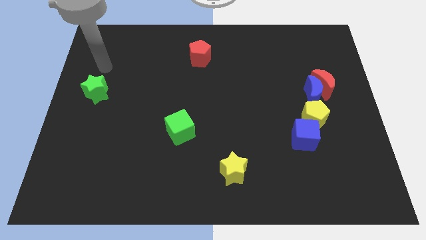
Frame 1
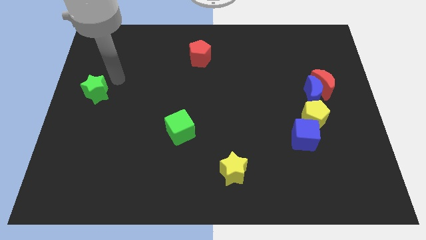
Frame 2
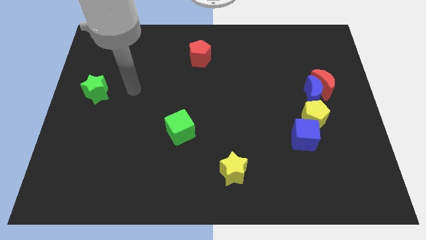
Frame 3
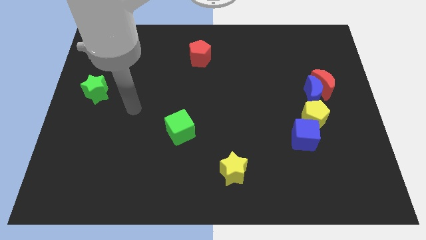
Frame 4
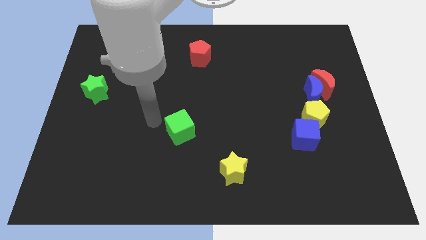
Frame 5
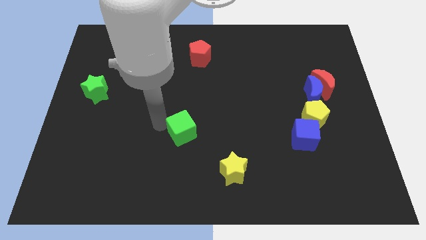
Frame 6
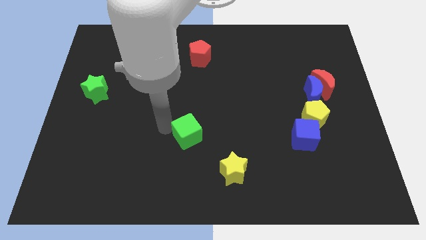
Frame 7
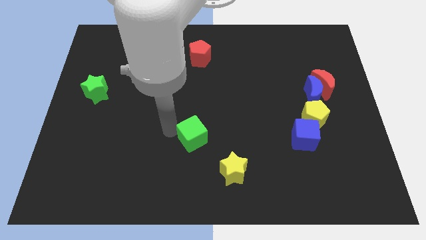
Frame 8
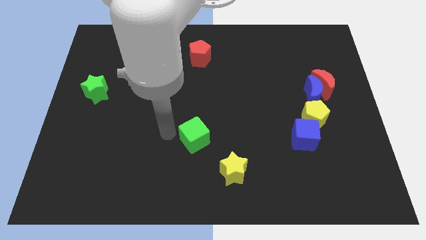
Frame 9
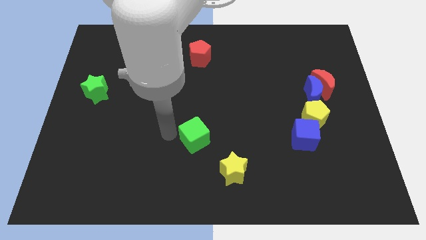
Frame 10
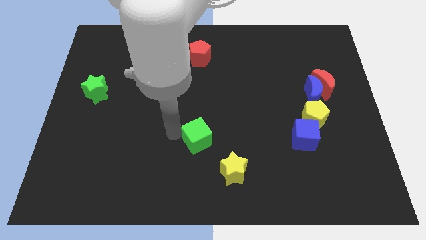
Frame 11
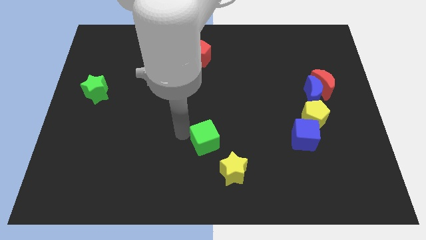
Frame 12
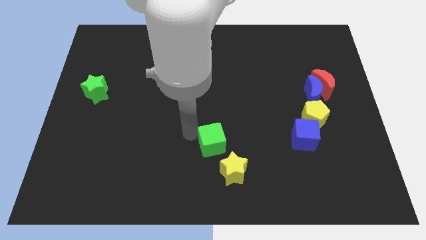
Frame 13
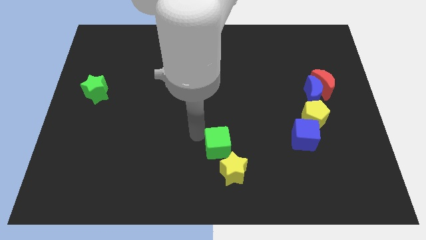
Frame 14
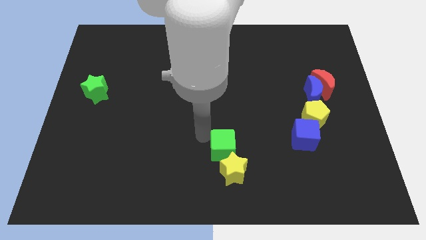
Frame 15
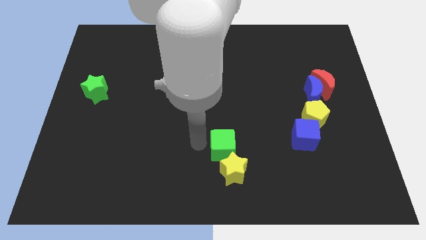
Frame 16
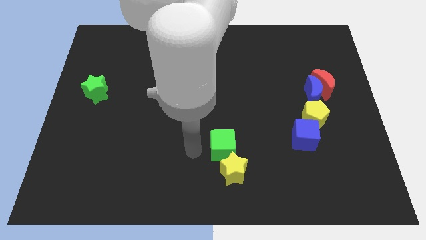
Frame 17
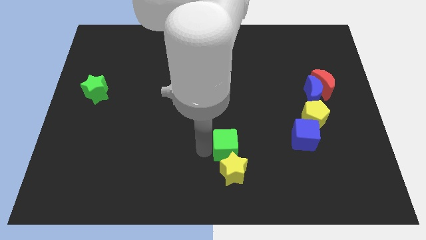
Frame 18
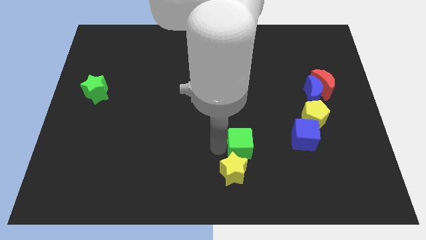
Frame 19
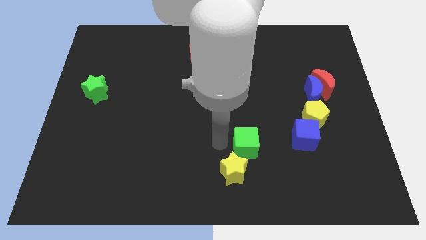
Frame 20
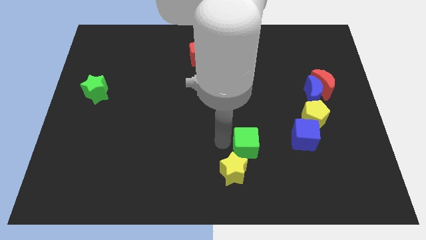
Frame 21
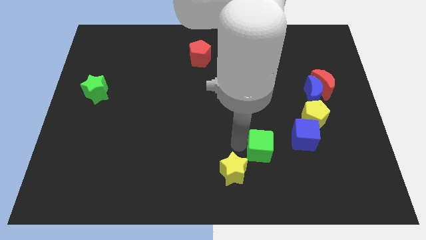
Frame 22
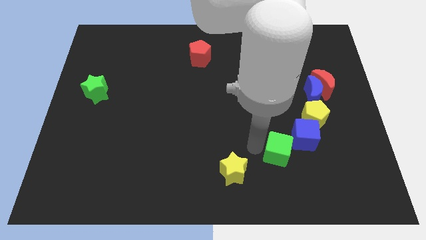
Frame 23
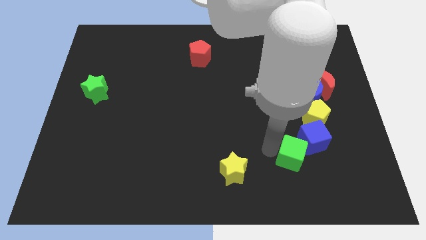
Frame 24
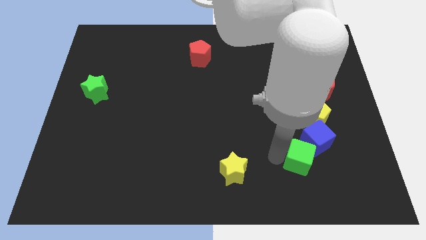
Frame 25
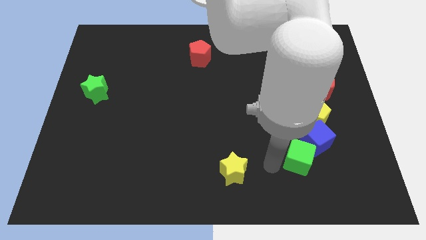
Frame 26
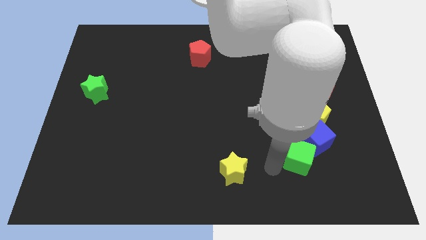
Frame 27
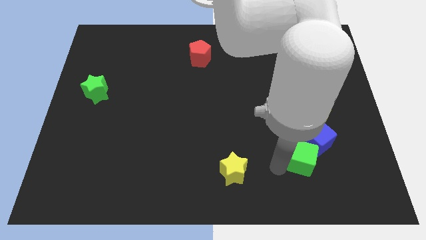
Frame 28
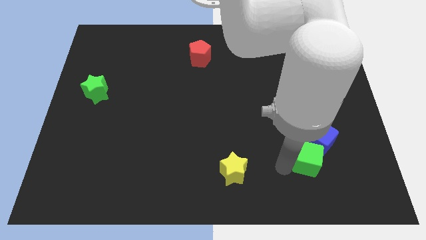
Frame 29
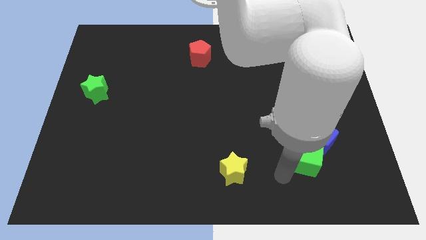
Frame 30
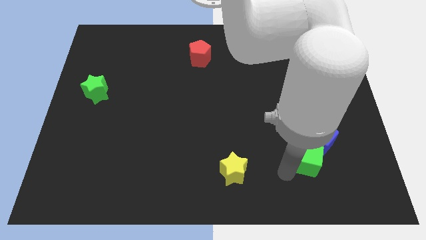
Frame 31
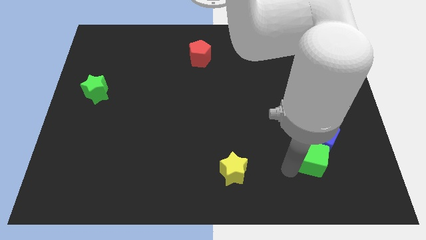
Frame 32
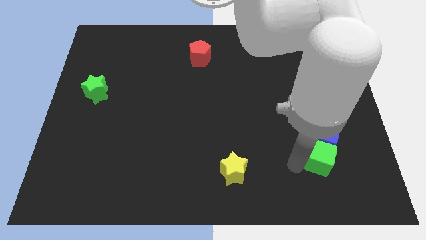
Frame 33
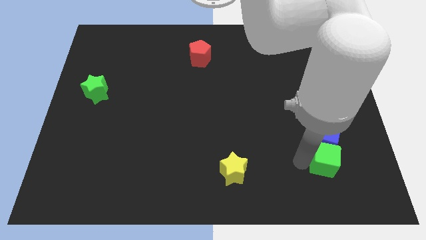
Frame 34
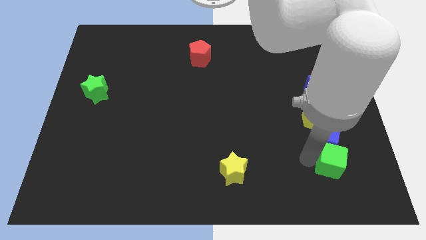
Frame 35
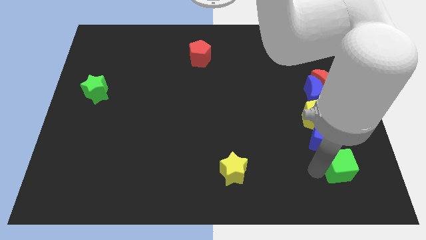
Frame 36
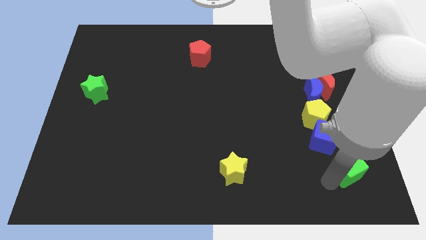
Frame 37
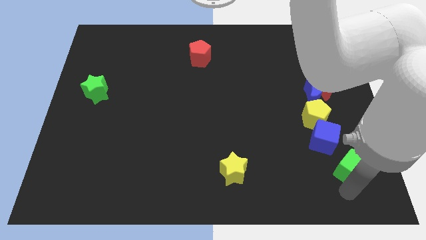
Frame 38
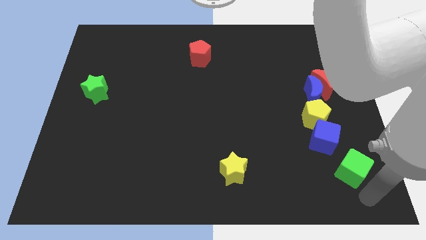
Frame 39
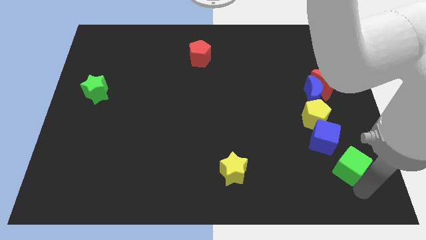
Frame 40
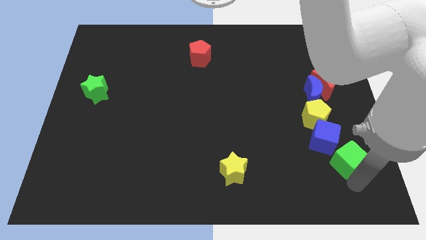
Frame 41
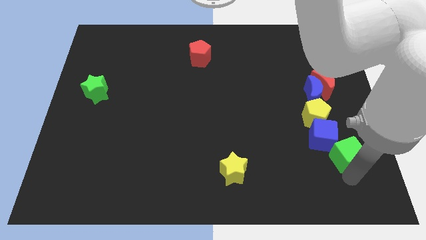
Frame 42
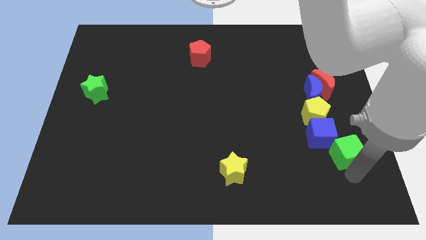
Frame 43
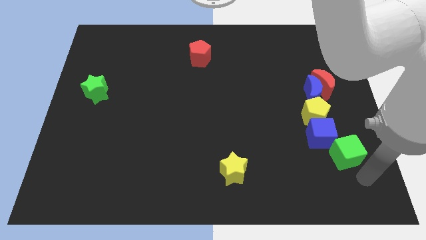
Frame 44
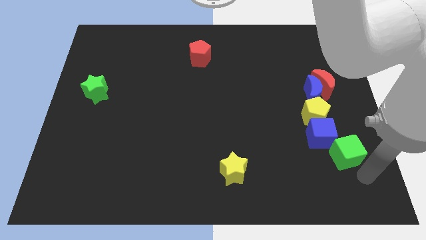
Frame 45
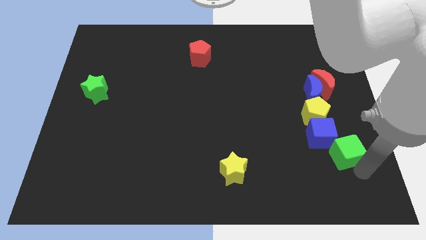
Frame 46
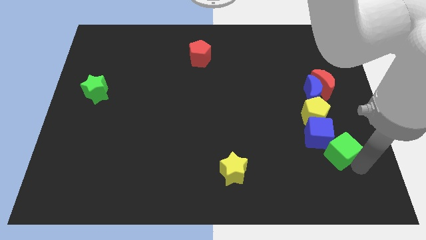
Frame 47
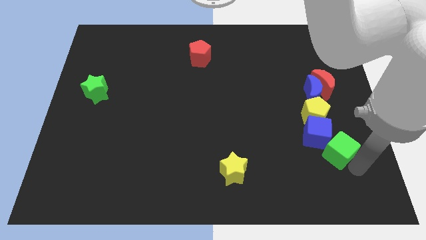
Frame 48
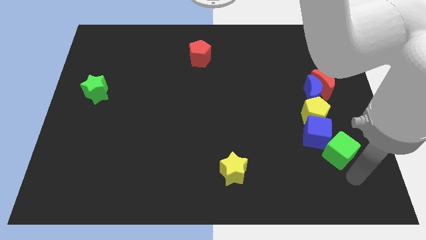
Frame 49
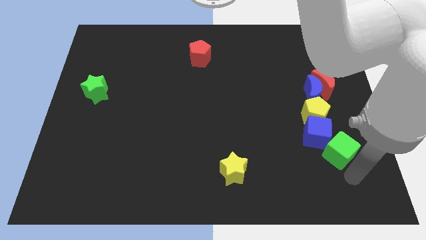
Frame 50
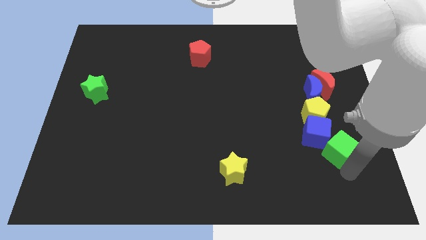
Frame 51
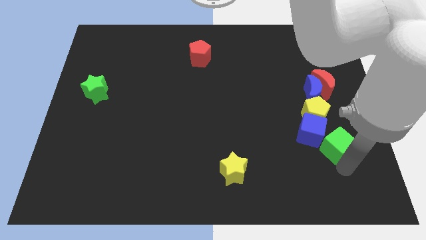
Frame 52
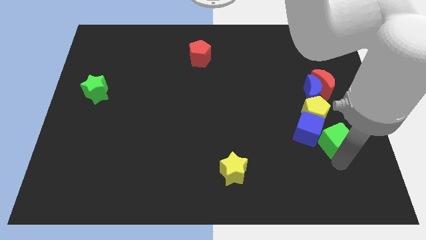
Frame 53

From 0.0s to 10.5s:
slide the green cube below the red moon

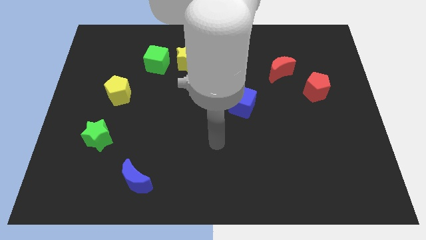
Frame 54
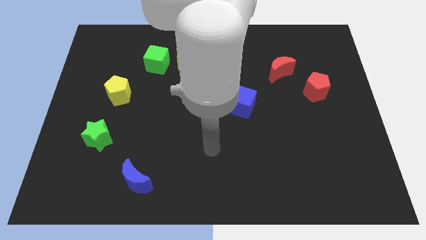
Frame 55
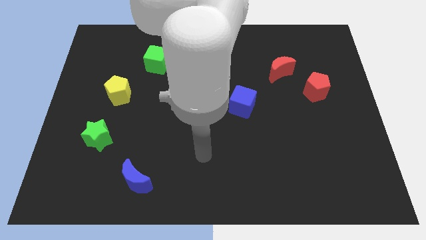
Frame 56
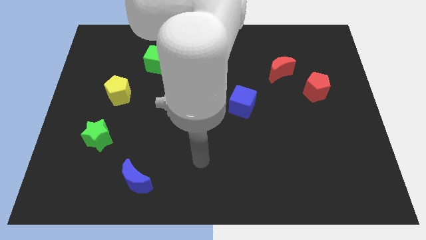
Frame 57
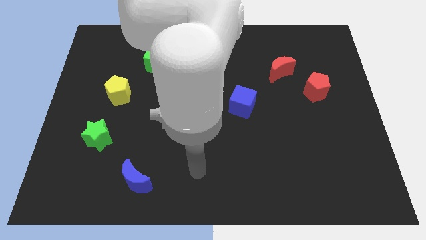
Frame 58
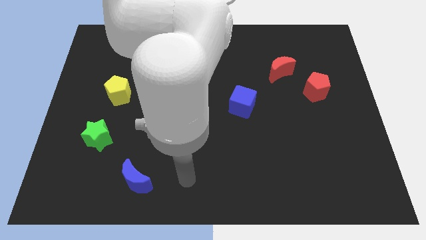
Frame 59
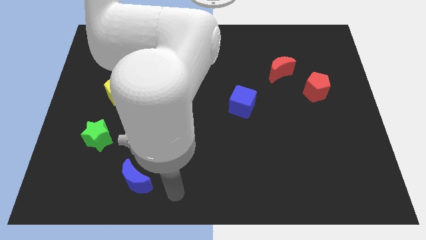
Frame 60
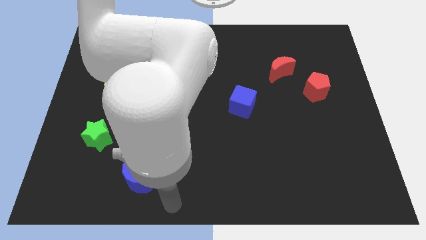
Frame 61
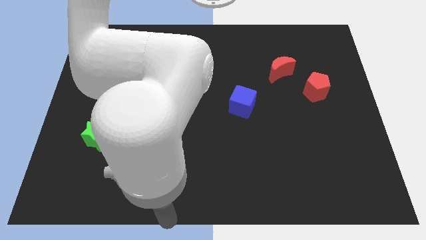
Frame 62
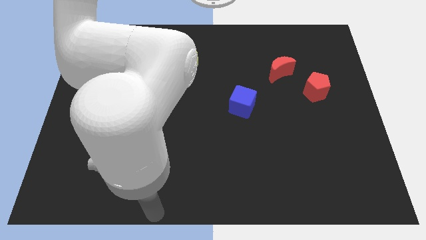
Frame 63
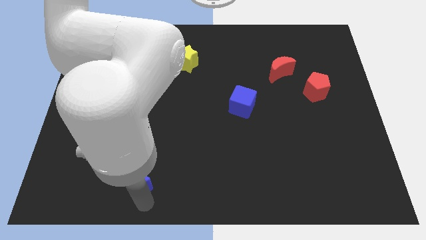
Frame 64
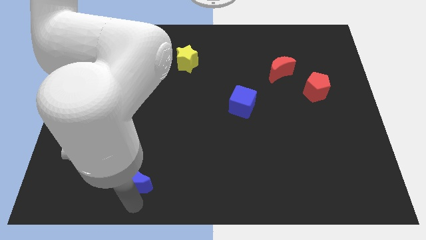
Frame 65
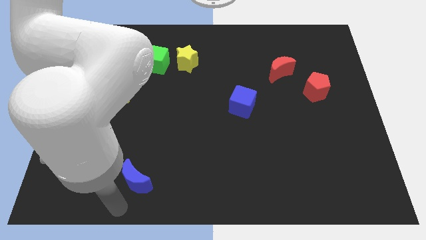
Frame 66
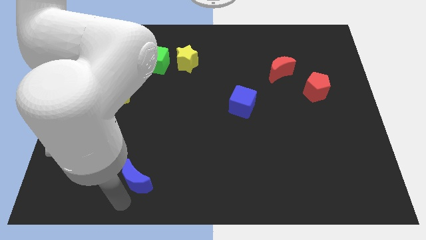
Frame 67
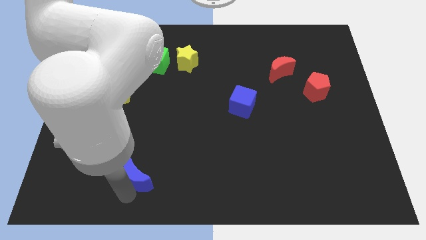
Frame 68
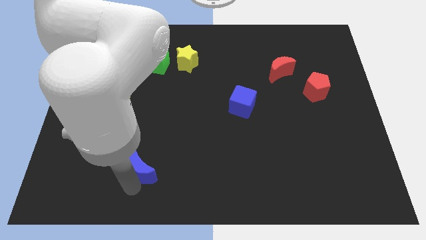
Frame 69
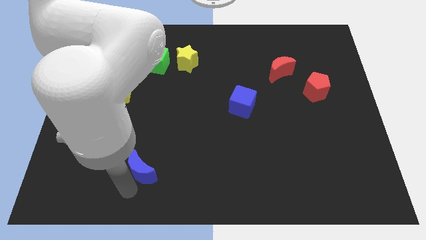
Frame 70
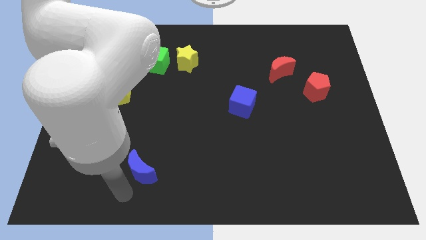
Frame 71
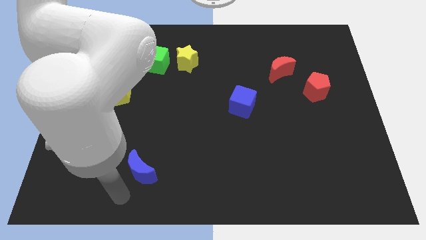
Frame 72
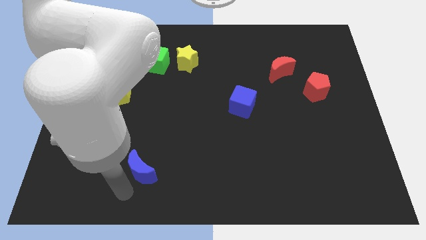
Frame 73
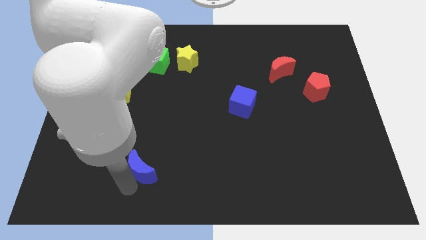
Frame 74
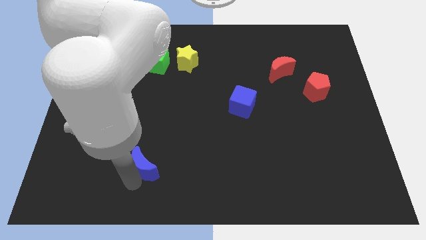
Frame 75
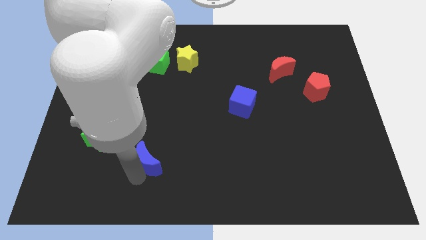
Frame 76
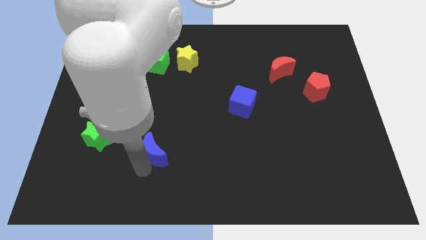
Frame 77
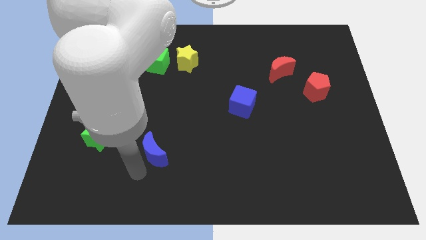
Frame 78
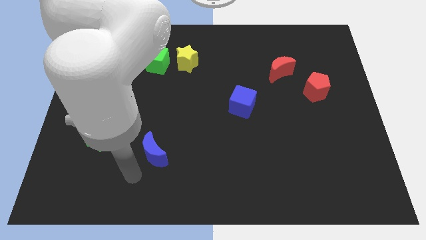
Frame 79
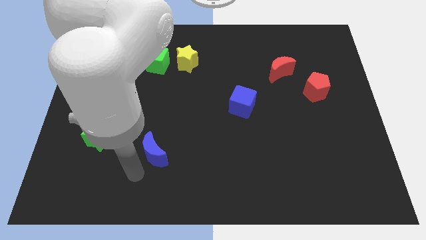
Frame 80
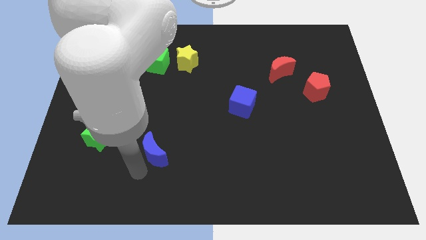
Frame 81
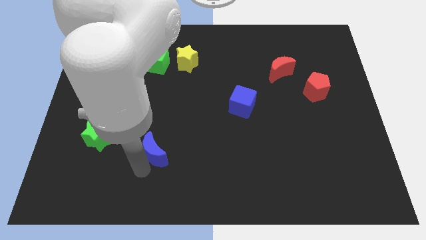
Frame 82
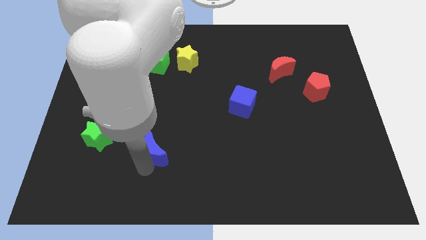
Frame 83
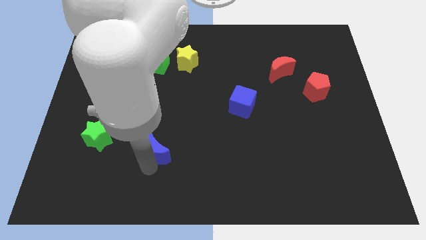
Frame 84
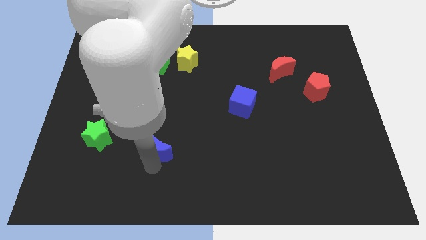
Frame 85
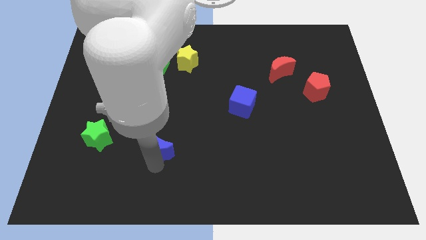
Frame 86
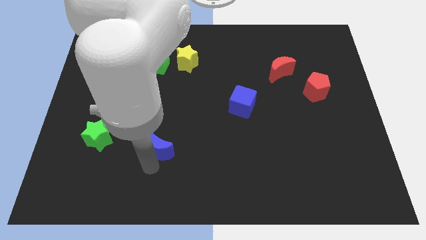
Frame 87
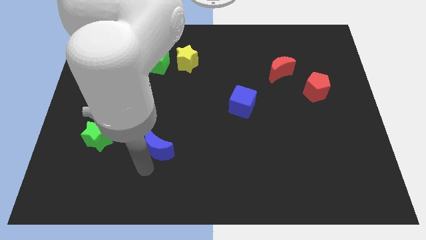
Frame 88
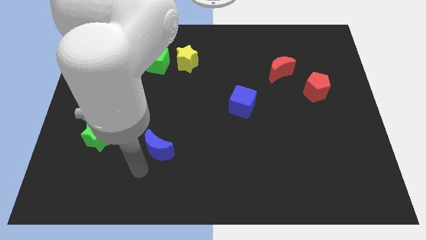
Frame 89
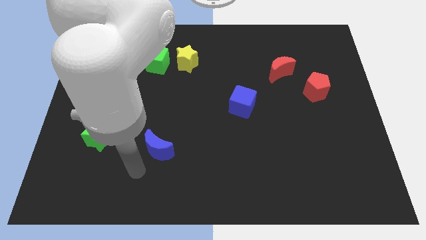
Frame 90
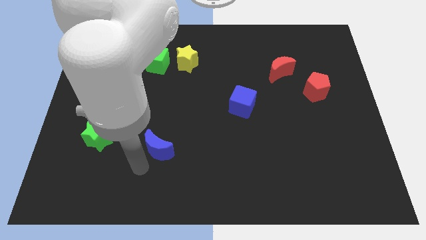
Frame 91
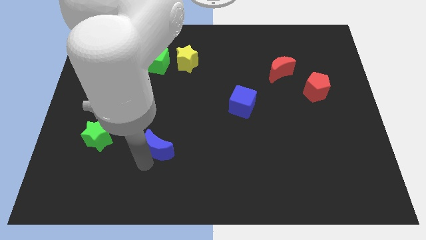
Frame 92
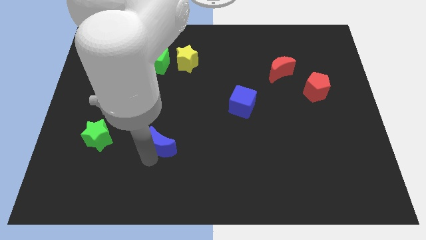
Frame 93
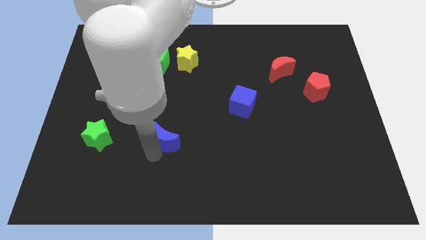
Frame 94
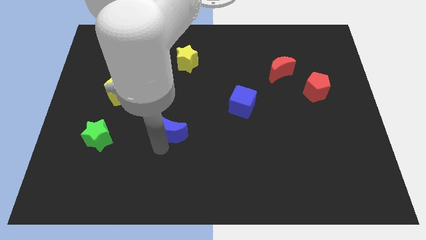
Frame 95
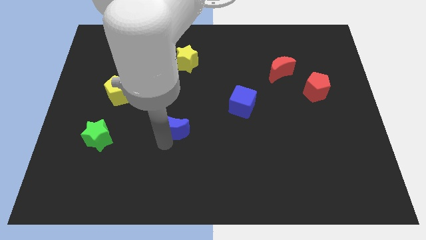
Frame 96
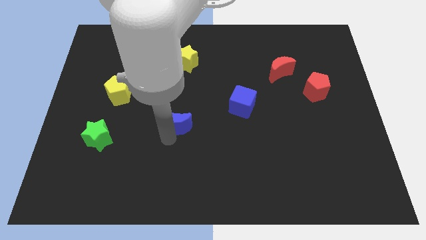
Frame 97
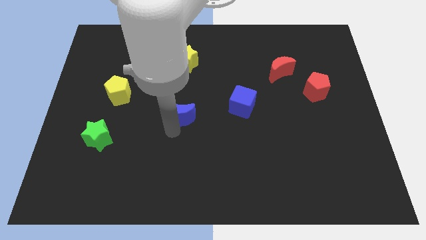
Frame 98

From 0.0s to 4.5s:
slide the blue moon to the left side of the blue cube
